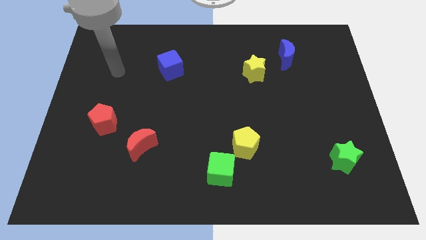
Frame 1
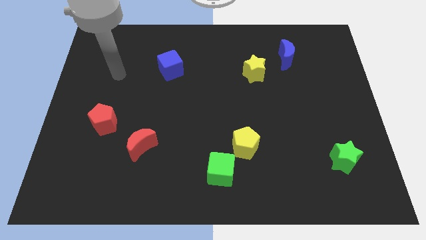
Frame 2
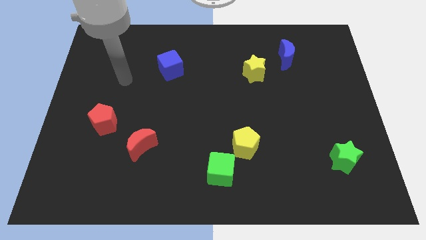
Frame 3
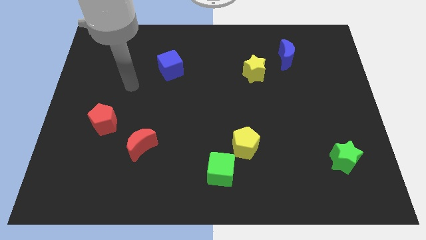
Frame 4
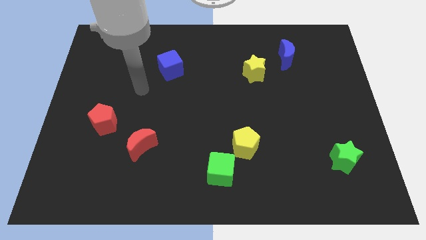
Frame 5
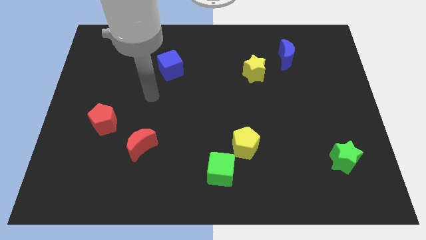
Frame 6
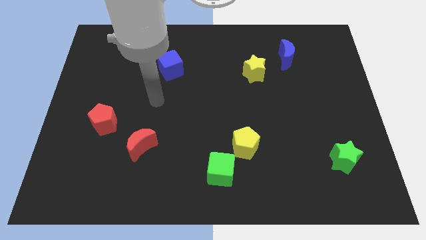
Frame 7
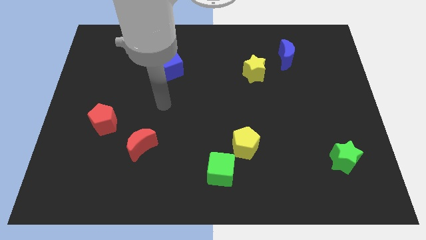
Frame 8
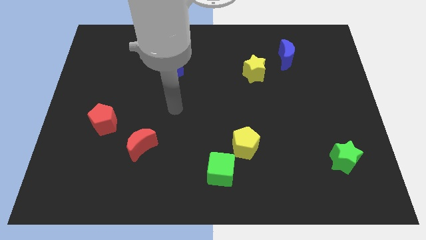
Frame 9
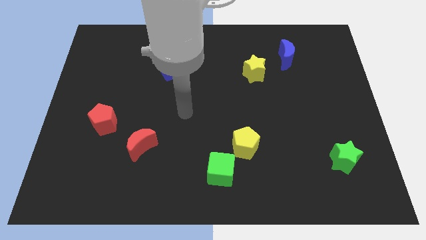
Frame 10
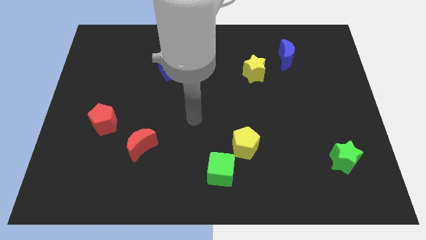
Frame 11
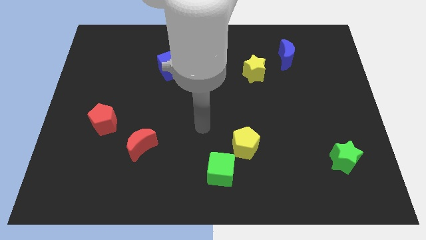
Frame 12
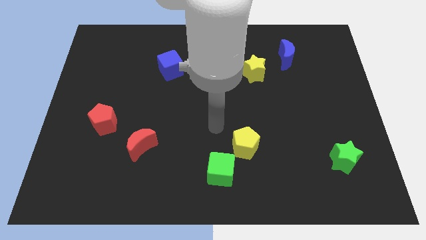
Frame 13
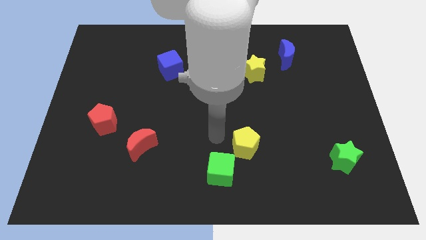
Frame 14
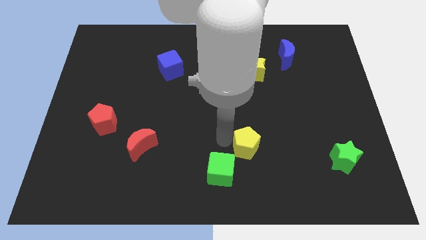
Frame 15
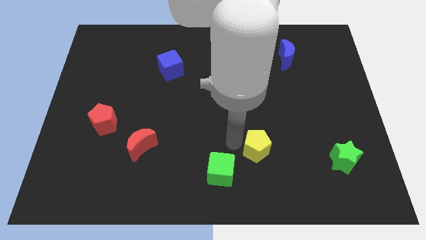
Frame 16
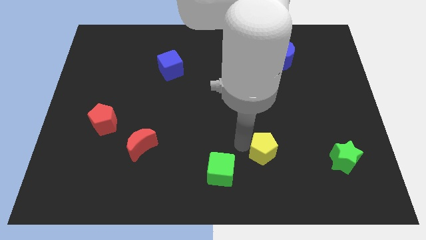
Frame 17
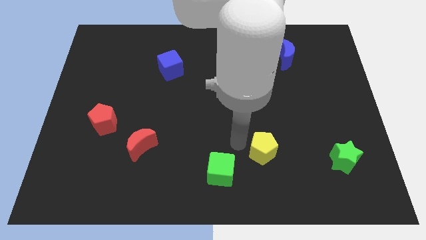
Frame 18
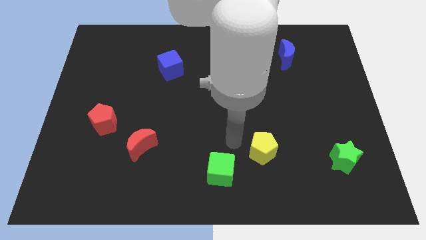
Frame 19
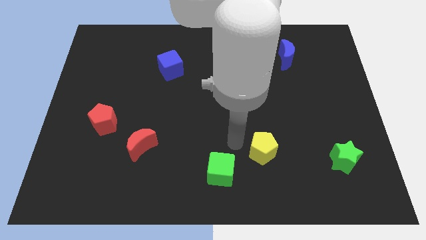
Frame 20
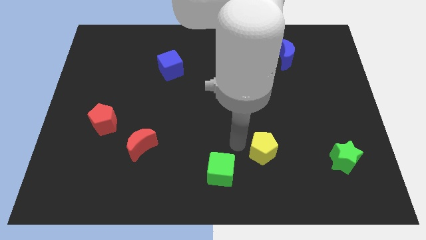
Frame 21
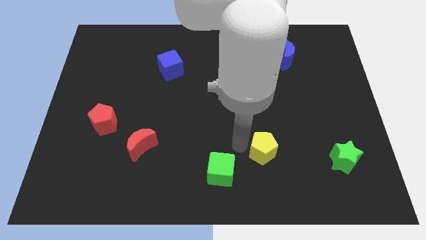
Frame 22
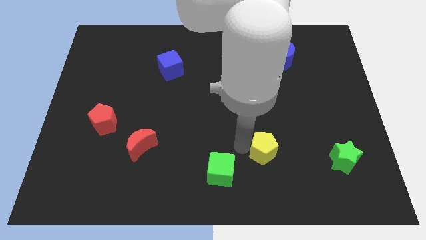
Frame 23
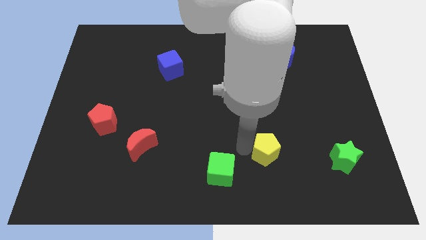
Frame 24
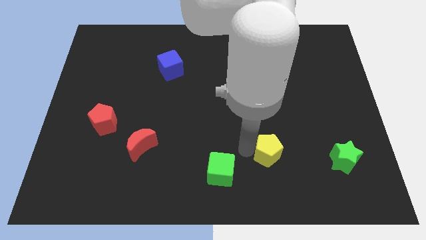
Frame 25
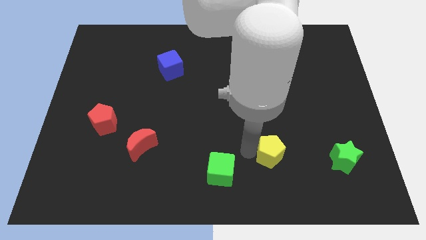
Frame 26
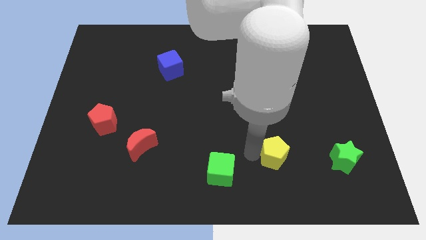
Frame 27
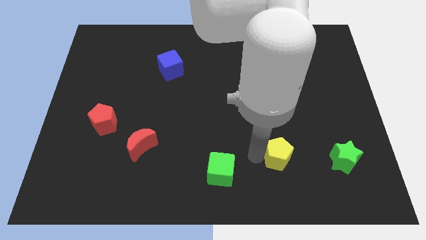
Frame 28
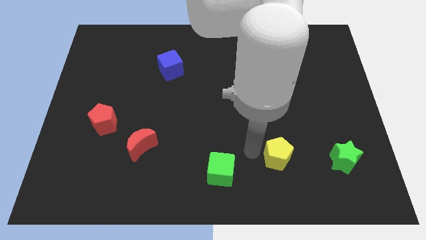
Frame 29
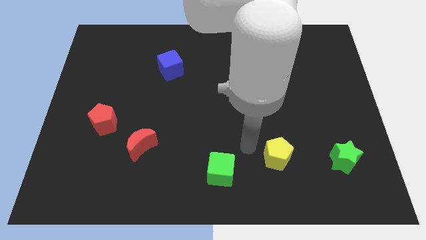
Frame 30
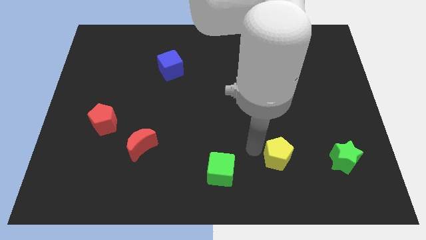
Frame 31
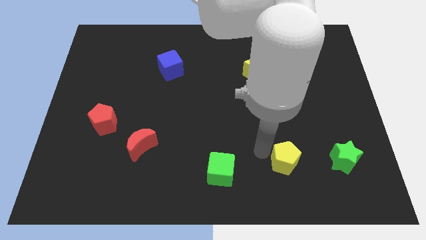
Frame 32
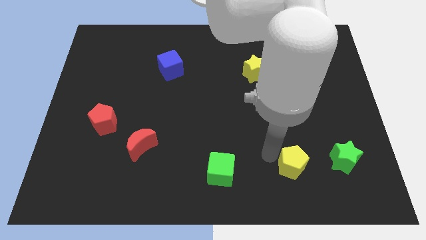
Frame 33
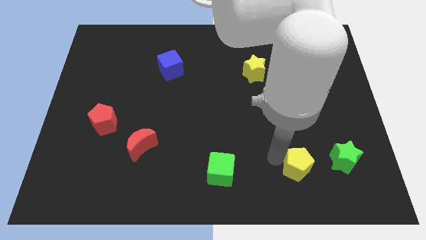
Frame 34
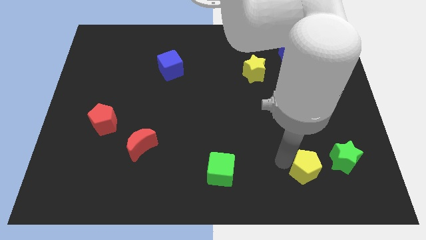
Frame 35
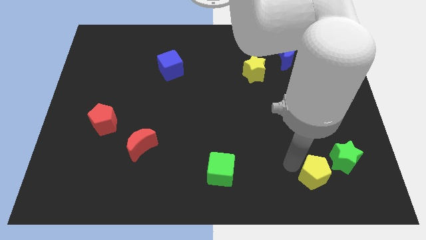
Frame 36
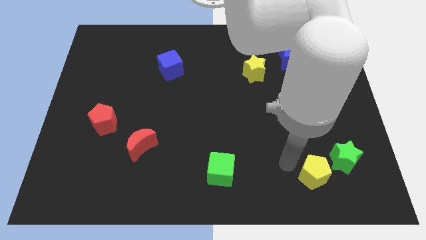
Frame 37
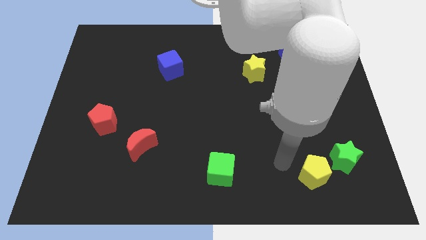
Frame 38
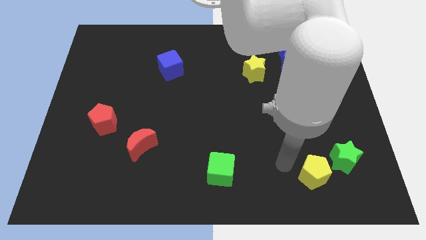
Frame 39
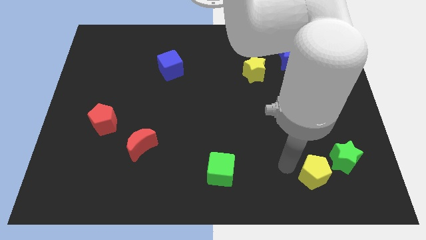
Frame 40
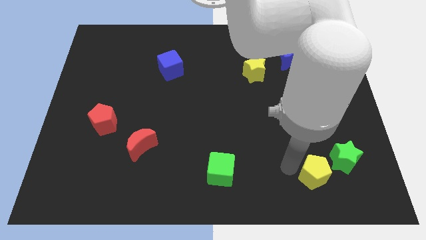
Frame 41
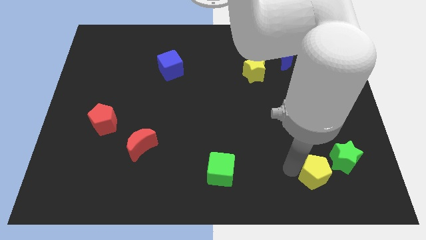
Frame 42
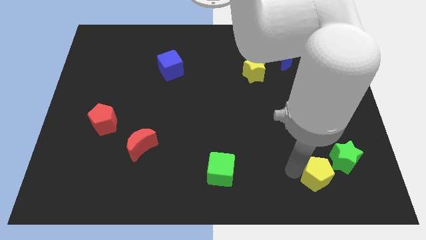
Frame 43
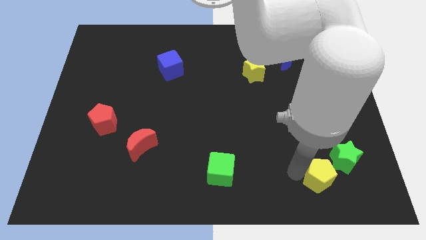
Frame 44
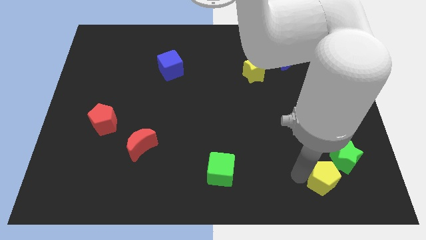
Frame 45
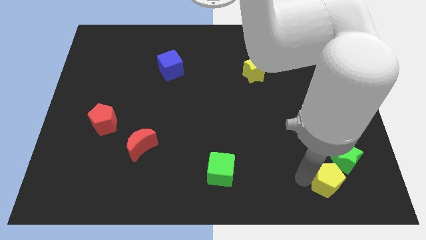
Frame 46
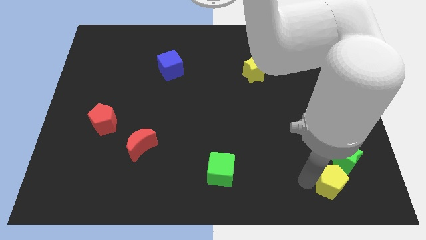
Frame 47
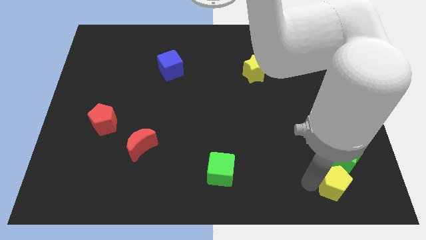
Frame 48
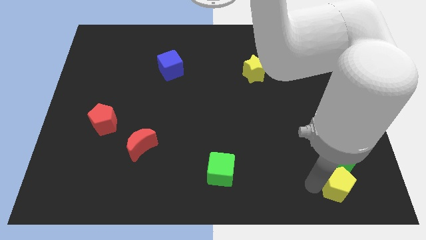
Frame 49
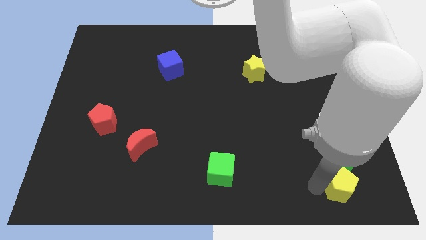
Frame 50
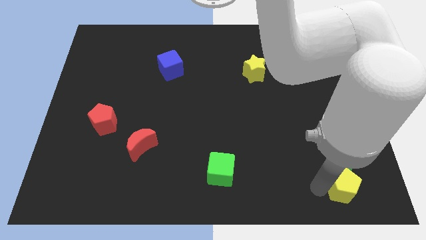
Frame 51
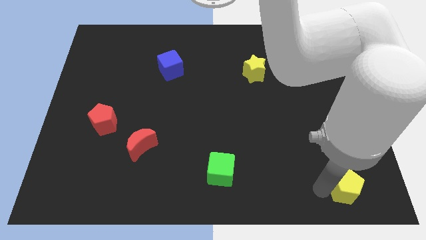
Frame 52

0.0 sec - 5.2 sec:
push the yellow pentagon to the lower right corner

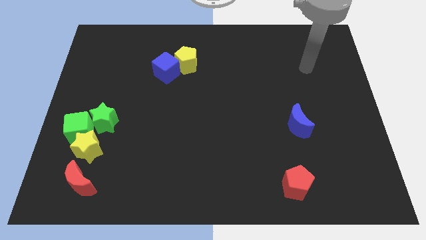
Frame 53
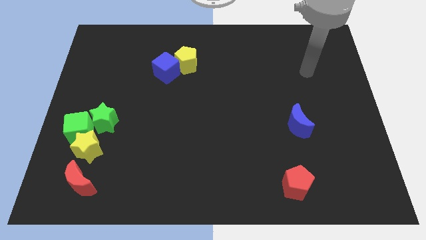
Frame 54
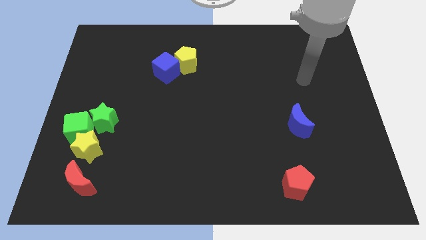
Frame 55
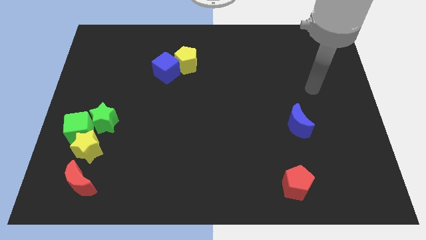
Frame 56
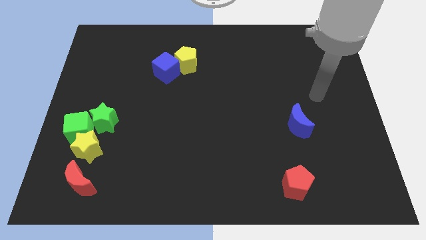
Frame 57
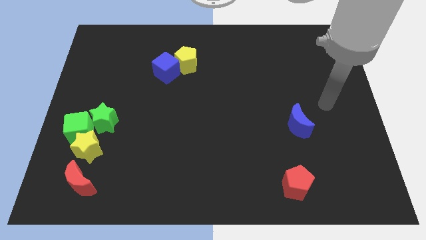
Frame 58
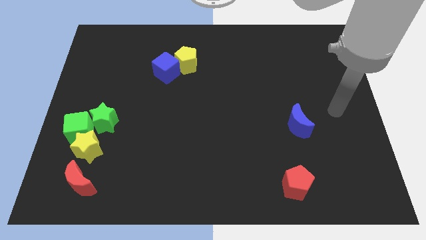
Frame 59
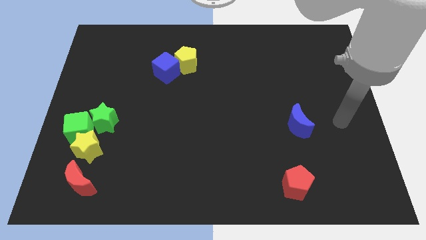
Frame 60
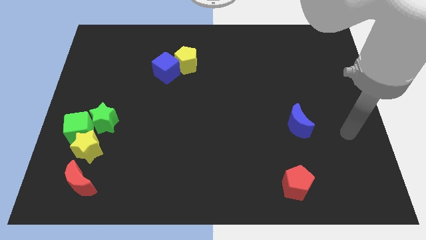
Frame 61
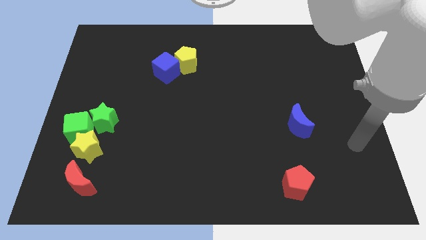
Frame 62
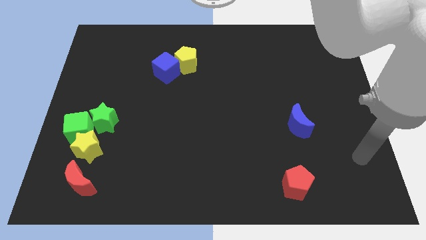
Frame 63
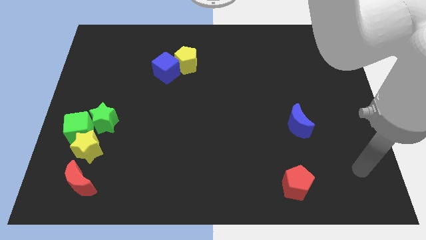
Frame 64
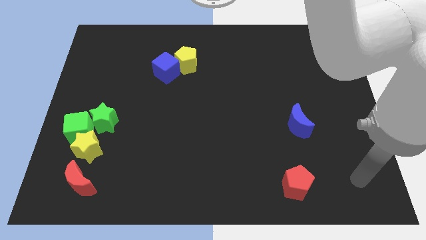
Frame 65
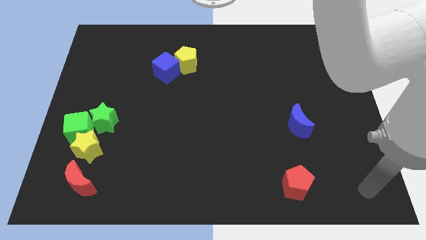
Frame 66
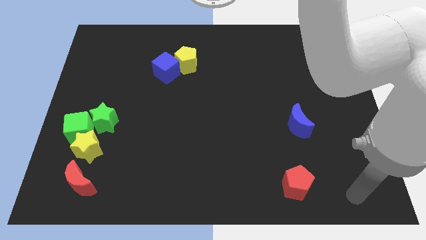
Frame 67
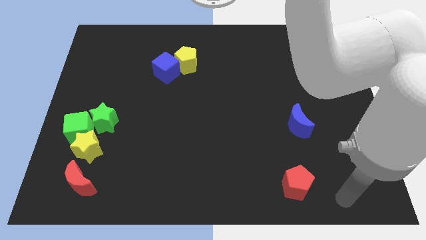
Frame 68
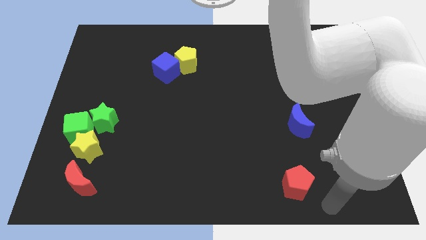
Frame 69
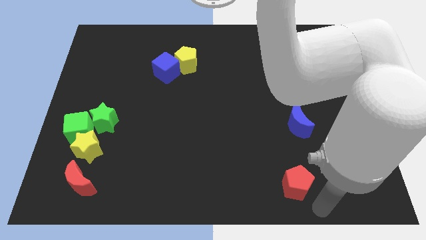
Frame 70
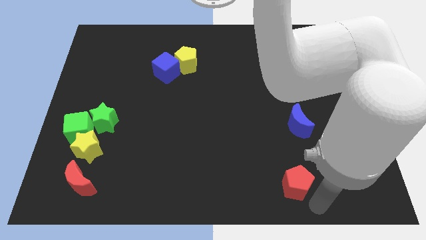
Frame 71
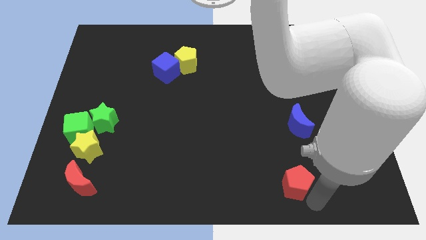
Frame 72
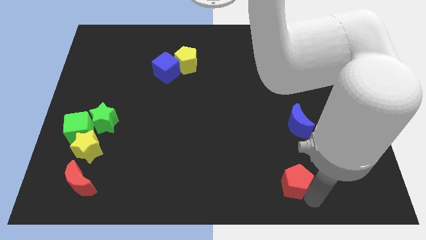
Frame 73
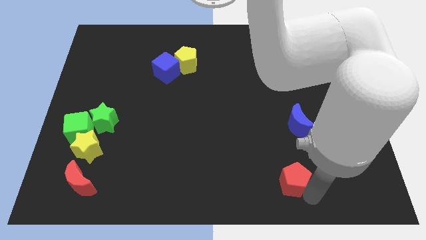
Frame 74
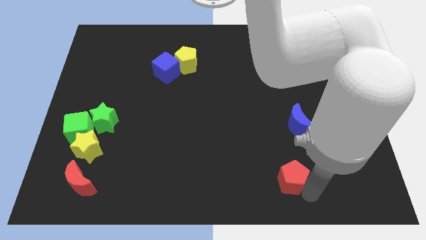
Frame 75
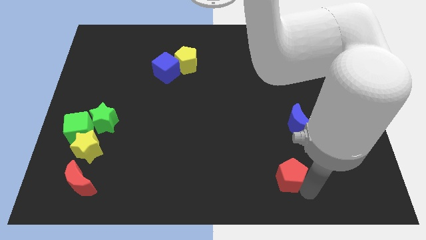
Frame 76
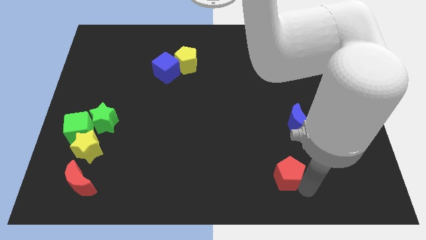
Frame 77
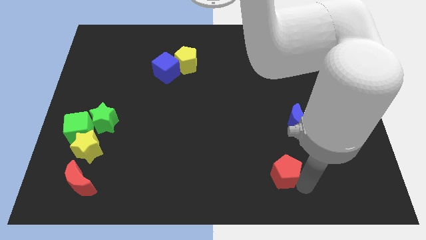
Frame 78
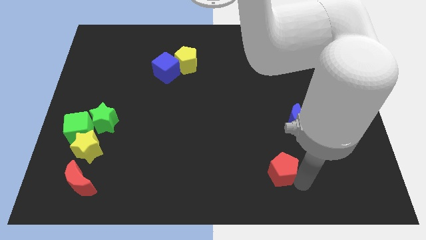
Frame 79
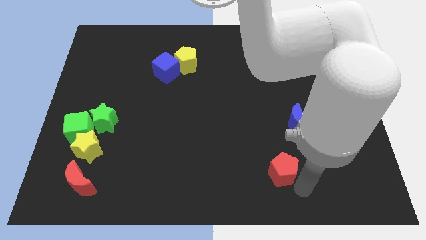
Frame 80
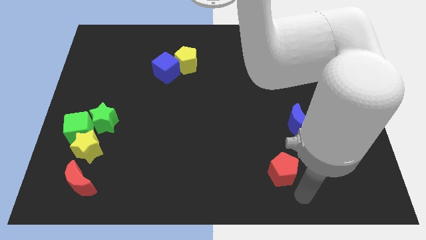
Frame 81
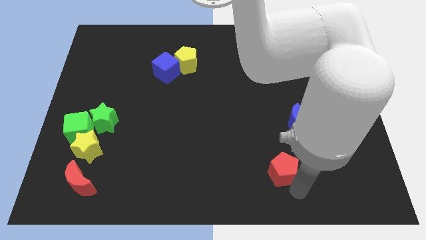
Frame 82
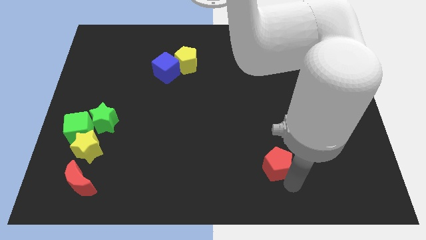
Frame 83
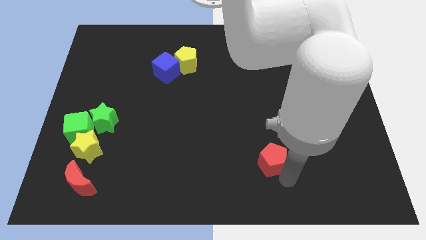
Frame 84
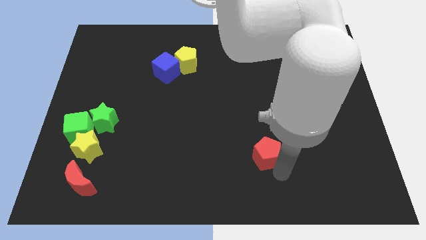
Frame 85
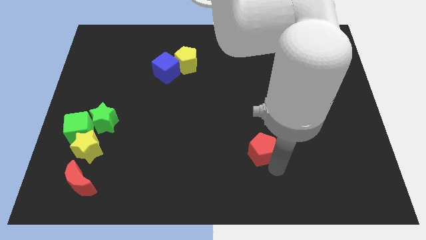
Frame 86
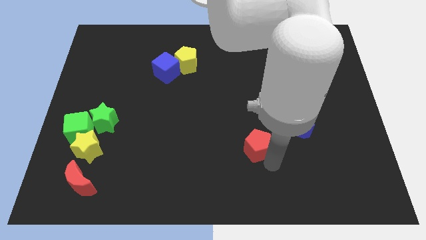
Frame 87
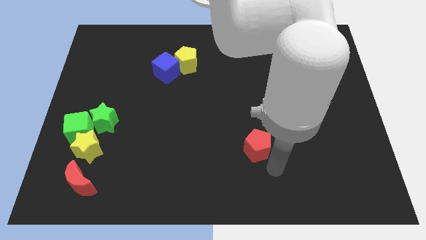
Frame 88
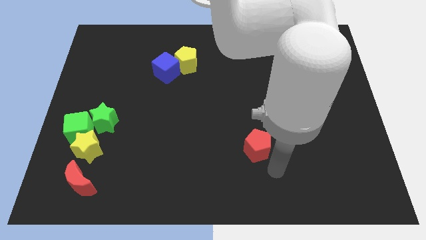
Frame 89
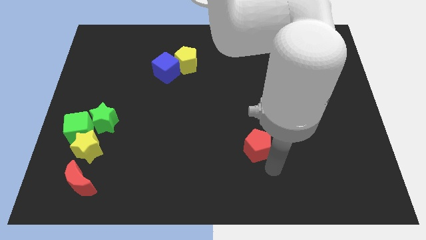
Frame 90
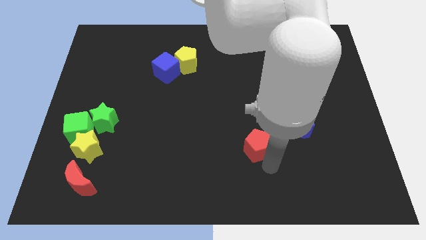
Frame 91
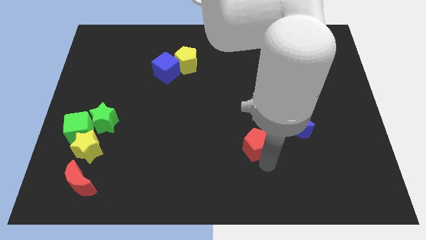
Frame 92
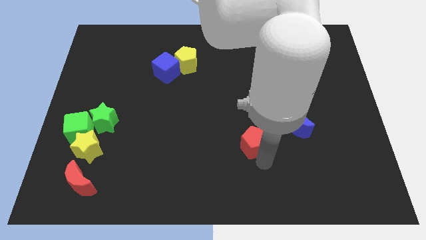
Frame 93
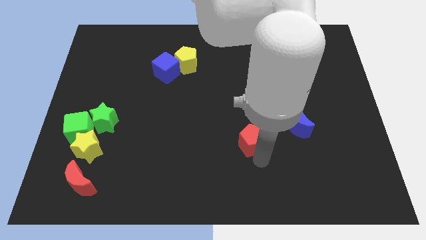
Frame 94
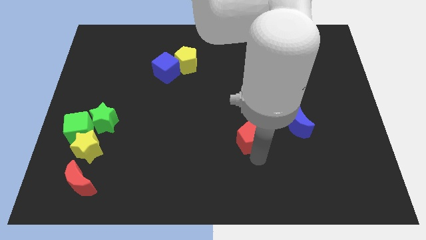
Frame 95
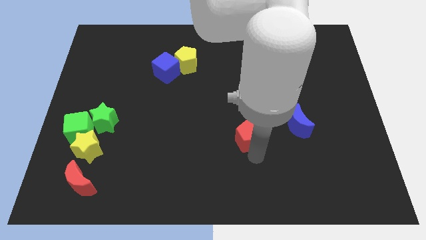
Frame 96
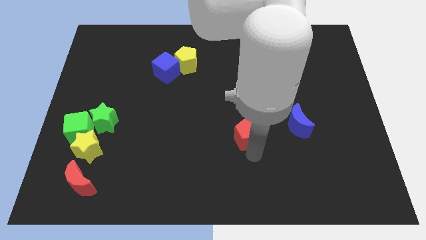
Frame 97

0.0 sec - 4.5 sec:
put the red pentagon to the middle
